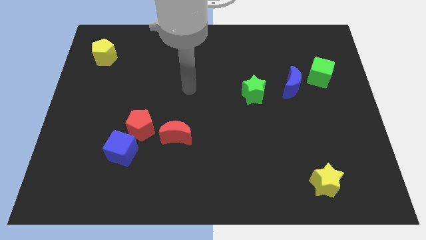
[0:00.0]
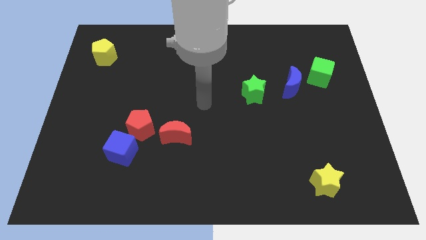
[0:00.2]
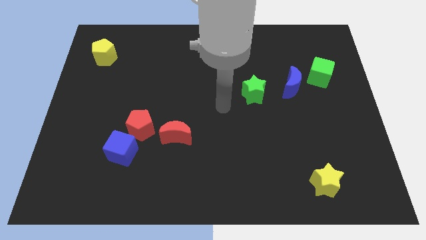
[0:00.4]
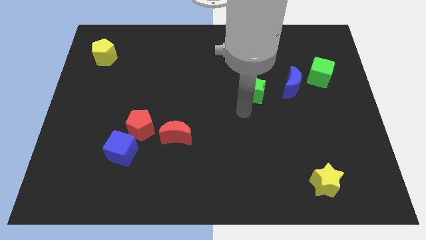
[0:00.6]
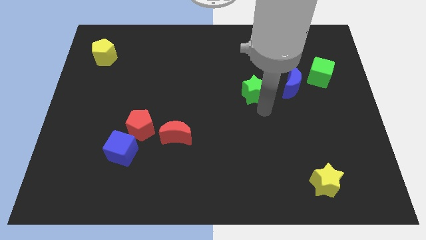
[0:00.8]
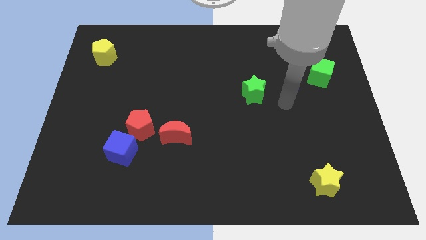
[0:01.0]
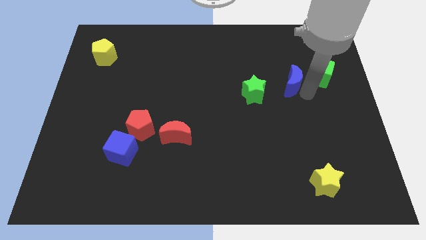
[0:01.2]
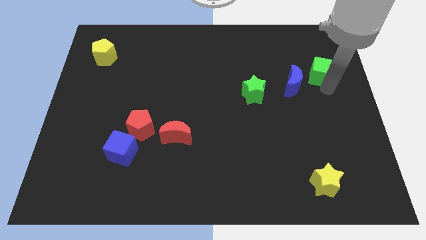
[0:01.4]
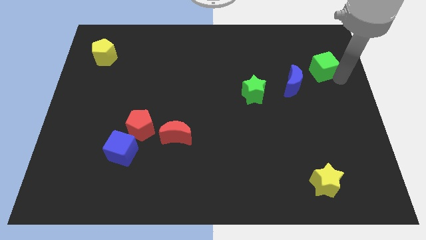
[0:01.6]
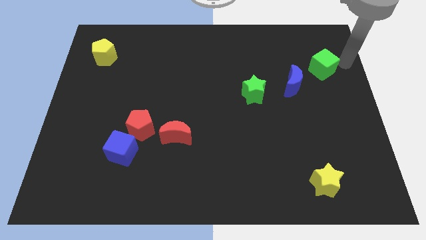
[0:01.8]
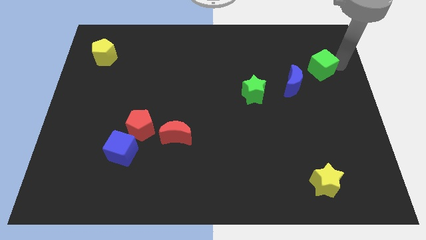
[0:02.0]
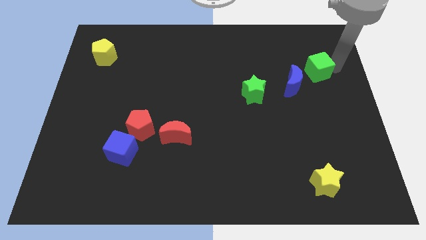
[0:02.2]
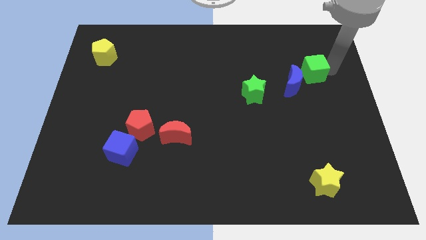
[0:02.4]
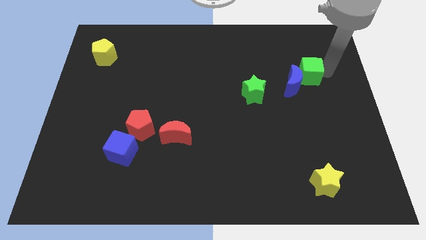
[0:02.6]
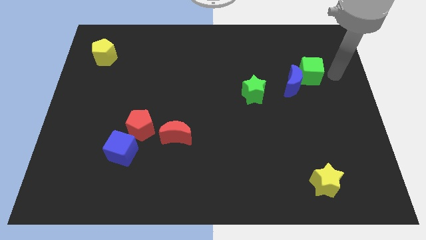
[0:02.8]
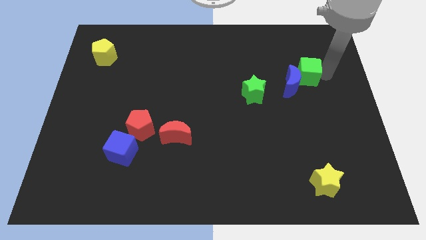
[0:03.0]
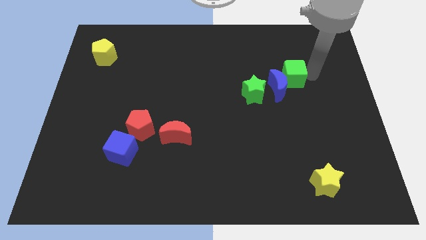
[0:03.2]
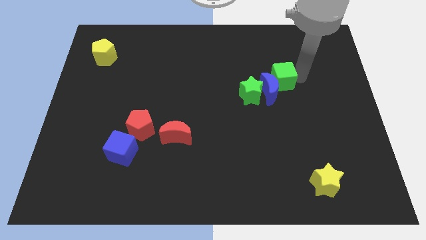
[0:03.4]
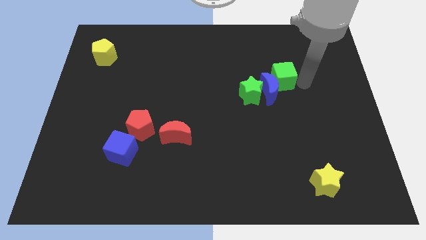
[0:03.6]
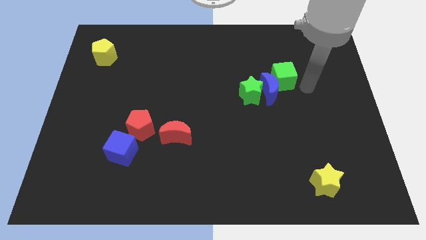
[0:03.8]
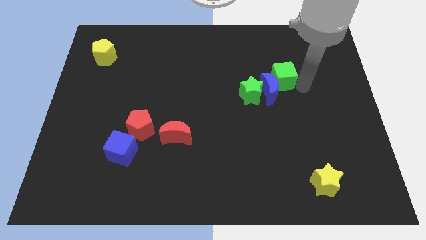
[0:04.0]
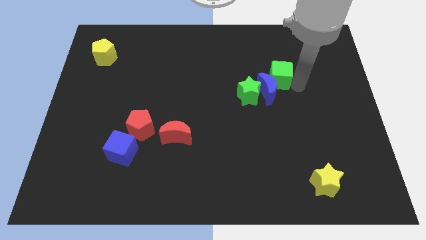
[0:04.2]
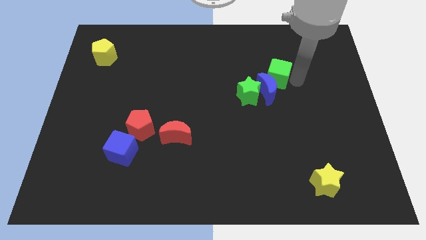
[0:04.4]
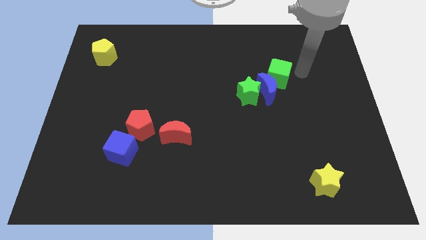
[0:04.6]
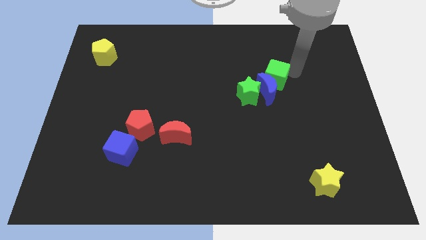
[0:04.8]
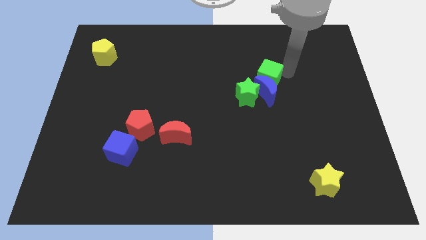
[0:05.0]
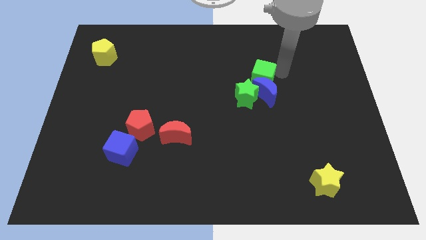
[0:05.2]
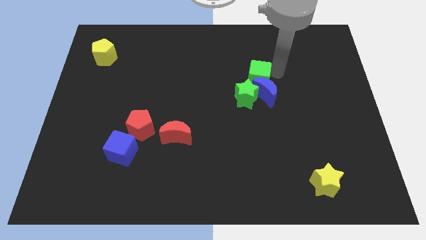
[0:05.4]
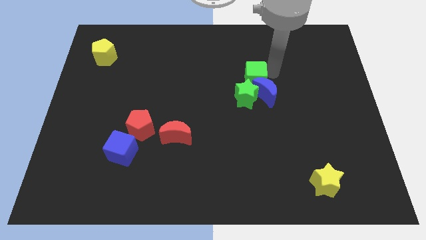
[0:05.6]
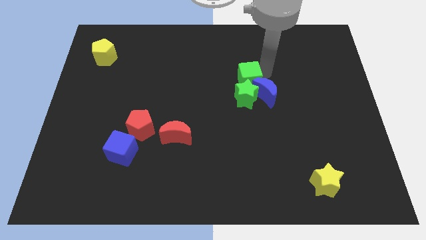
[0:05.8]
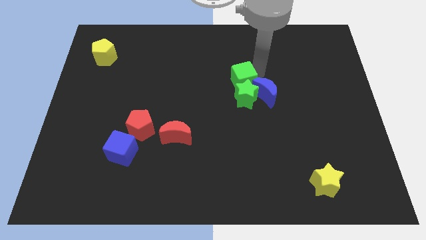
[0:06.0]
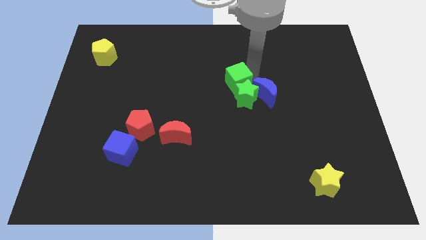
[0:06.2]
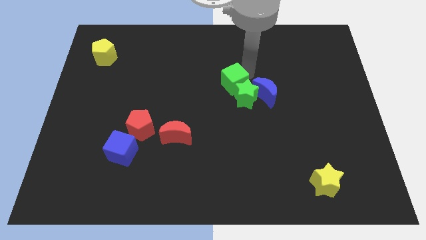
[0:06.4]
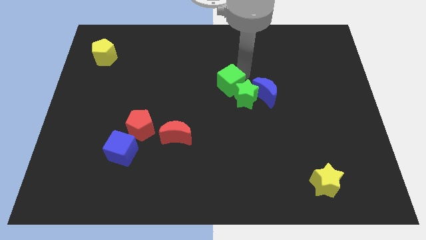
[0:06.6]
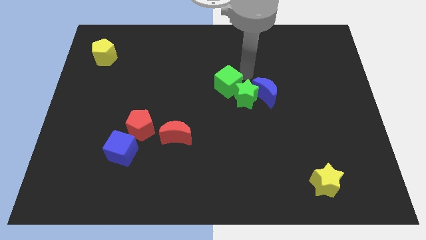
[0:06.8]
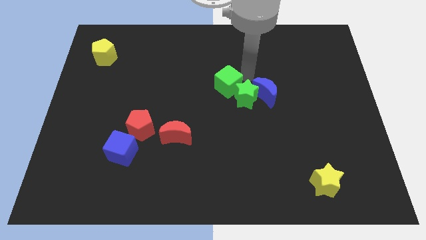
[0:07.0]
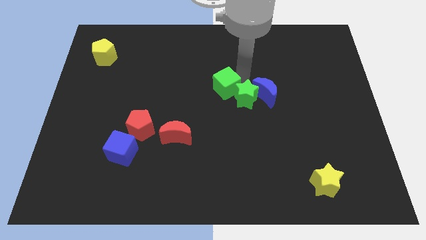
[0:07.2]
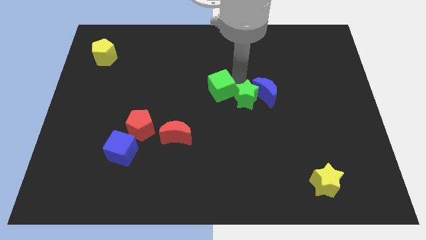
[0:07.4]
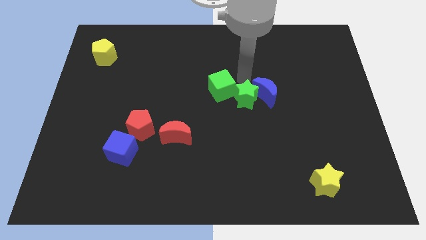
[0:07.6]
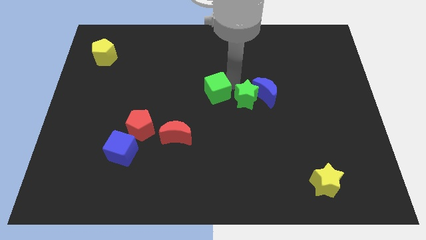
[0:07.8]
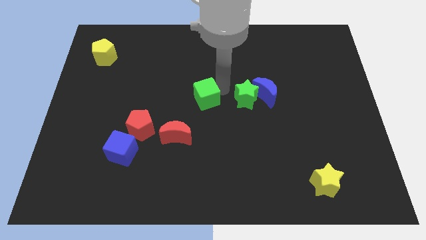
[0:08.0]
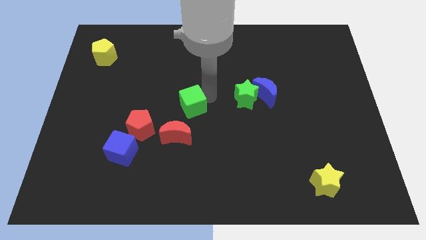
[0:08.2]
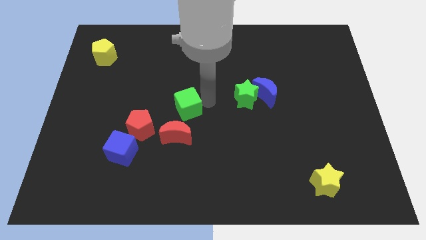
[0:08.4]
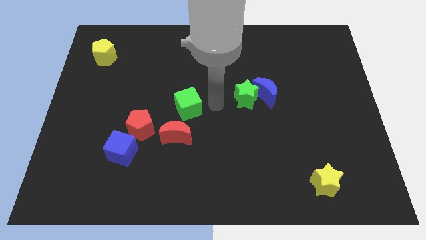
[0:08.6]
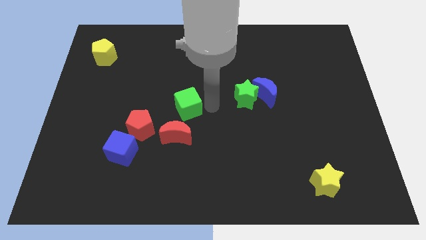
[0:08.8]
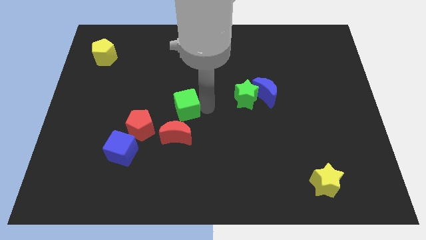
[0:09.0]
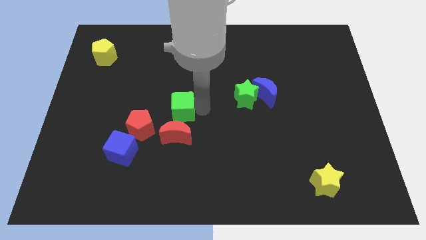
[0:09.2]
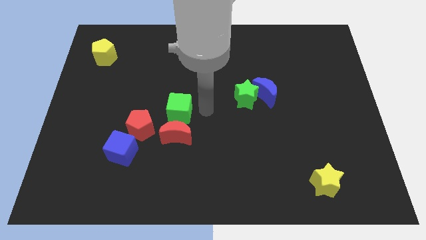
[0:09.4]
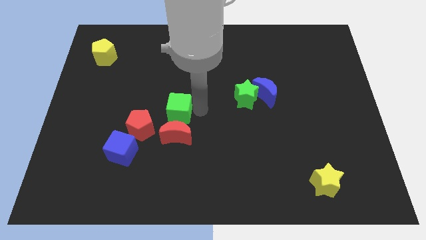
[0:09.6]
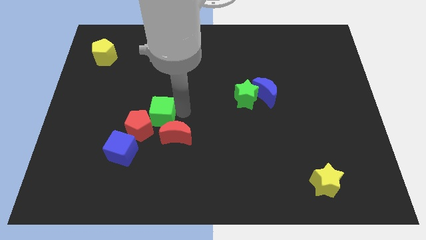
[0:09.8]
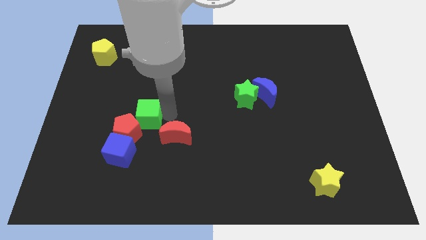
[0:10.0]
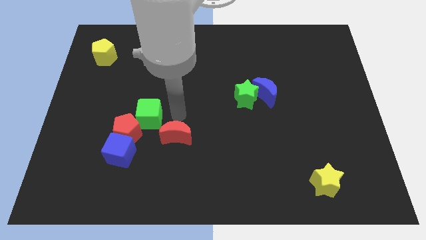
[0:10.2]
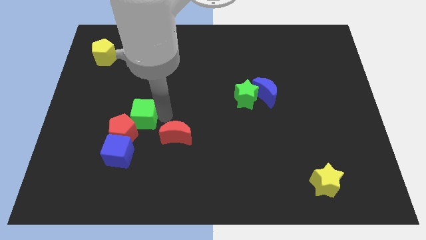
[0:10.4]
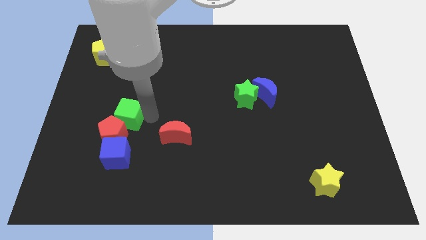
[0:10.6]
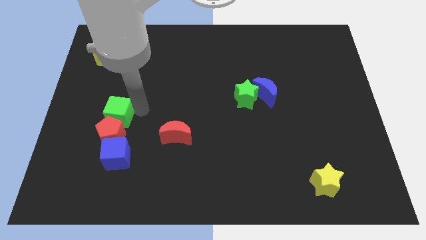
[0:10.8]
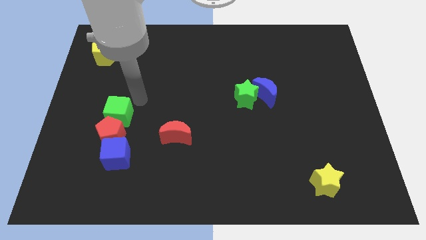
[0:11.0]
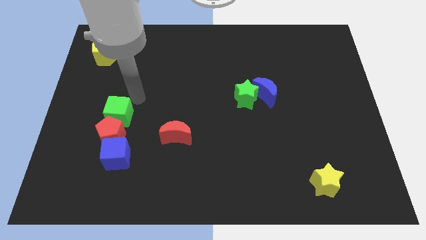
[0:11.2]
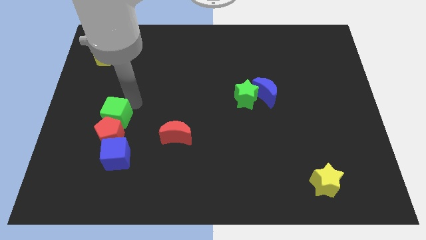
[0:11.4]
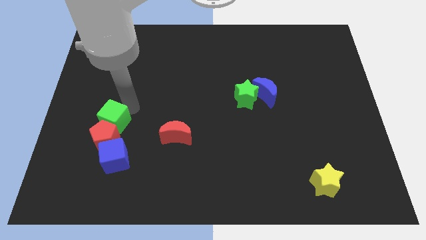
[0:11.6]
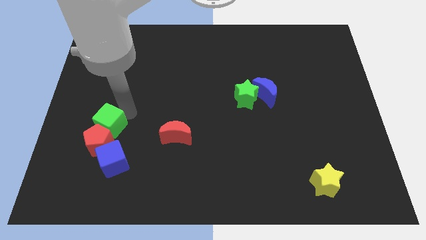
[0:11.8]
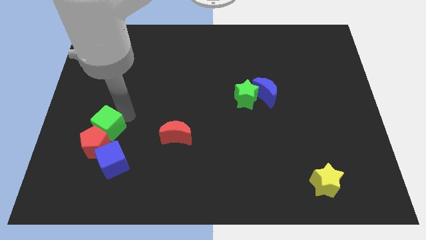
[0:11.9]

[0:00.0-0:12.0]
put the green cube to the top left of the blue cube

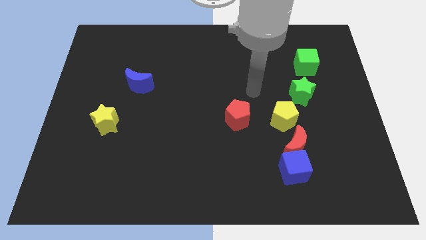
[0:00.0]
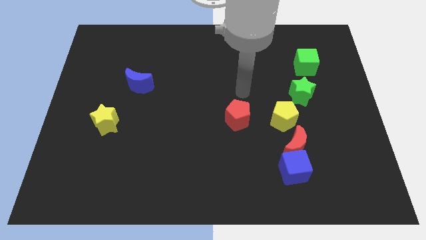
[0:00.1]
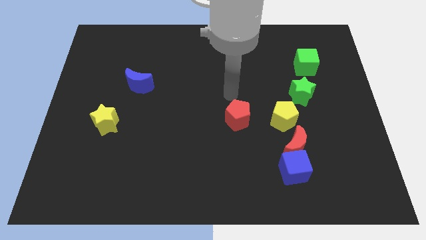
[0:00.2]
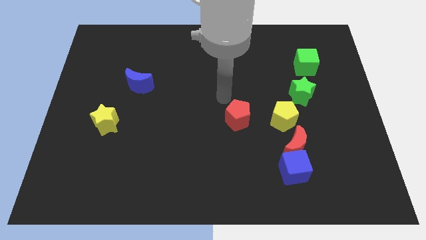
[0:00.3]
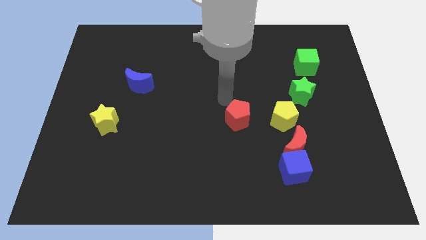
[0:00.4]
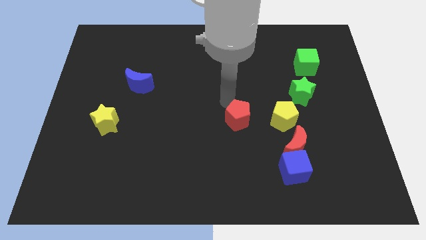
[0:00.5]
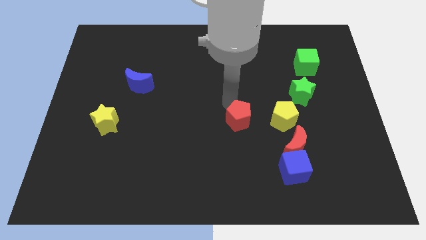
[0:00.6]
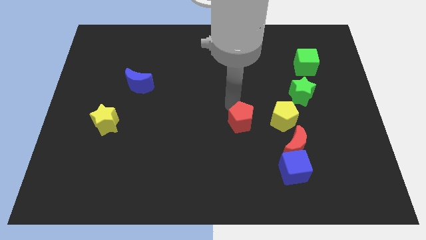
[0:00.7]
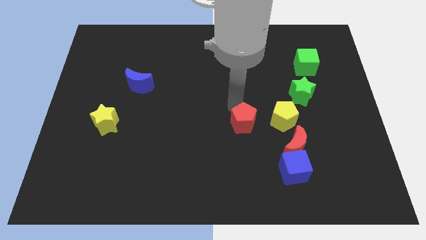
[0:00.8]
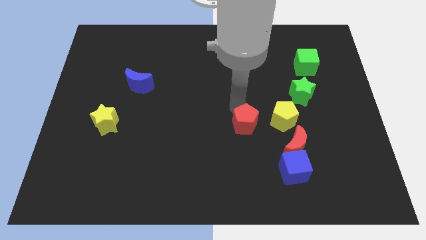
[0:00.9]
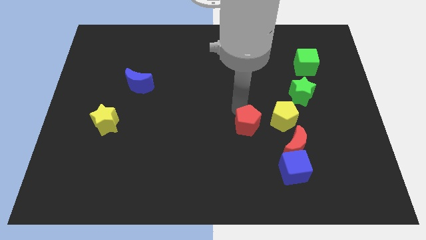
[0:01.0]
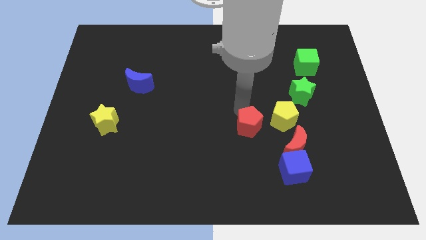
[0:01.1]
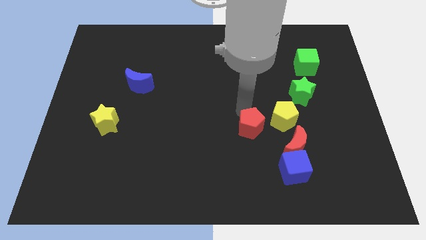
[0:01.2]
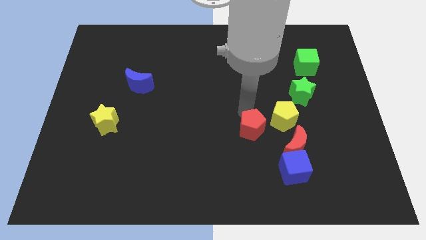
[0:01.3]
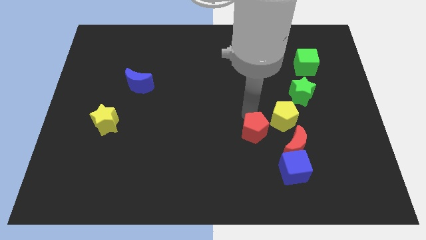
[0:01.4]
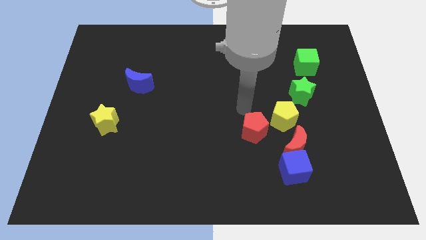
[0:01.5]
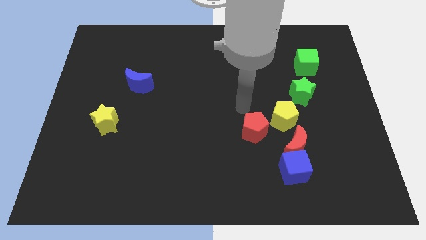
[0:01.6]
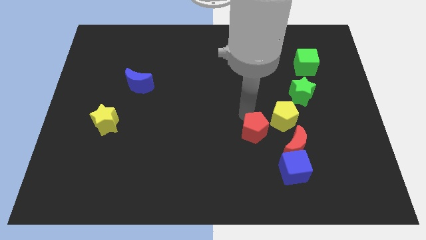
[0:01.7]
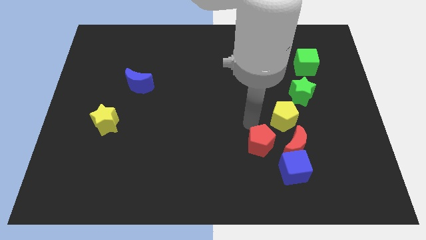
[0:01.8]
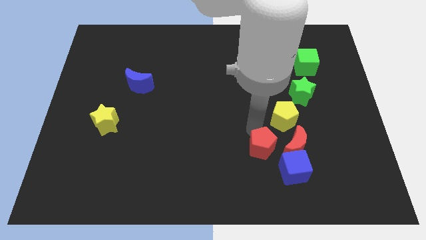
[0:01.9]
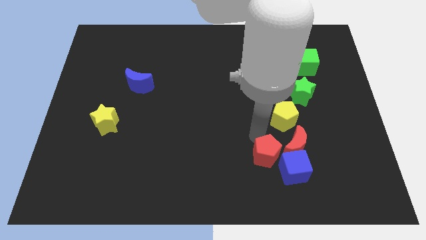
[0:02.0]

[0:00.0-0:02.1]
push the red pentagon diagonally down and to the left of the red moon
